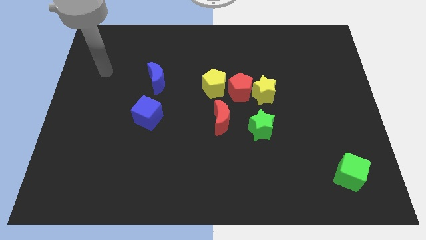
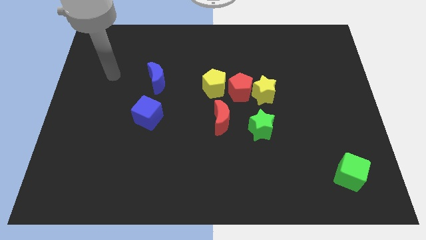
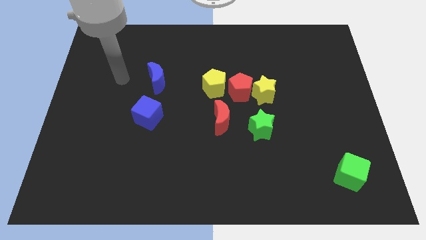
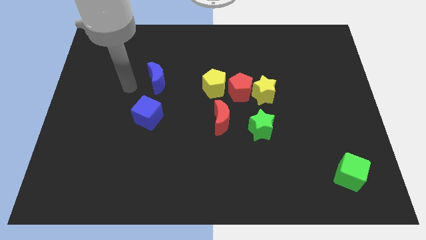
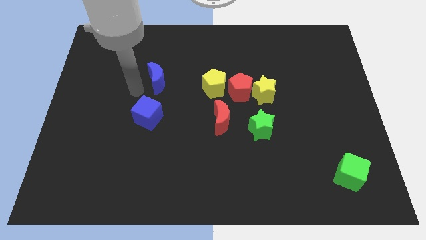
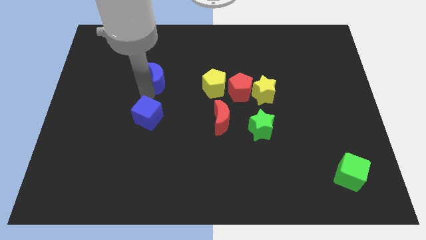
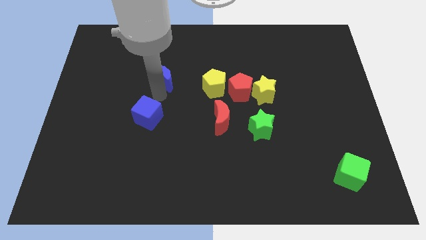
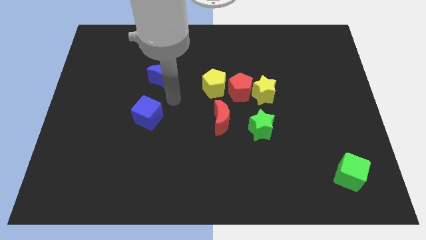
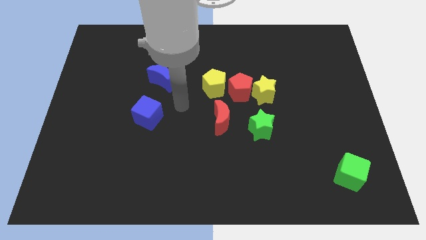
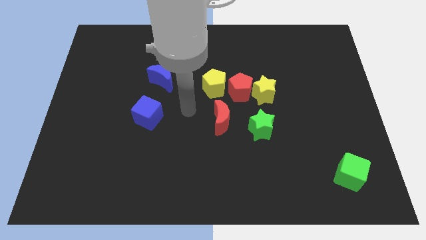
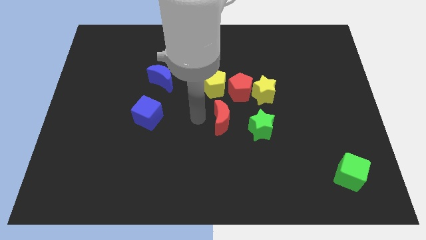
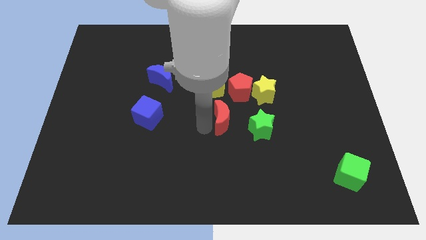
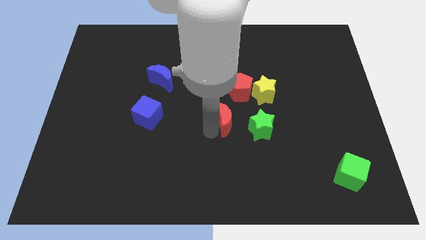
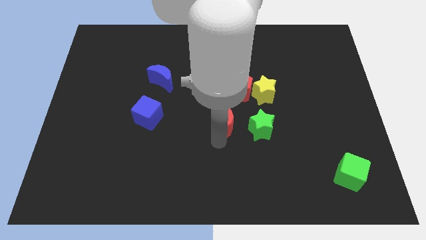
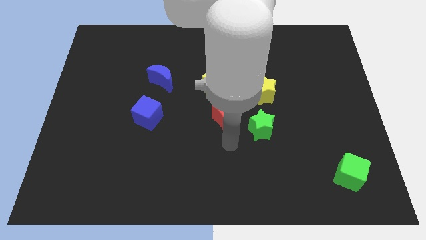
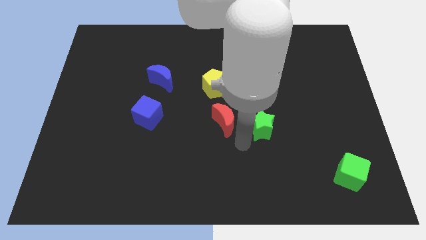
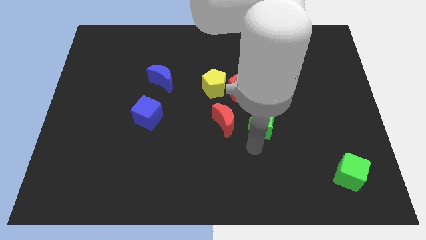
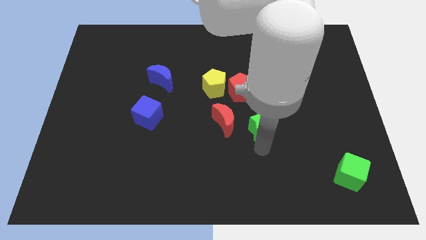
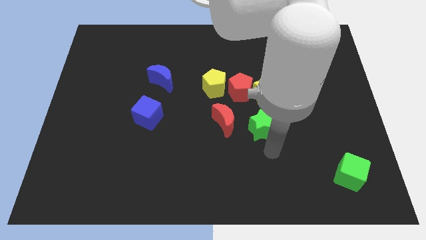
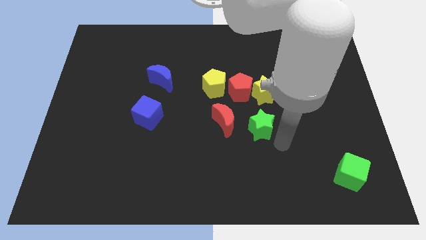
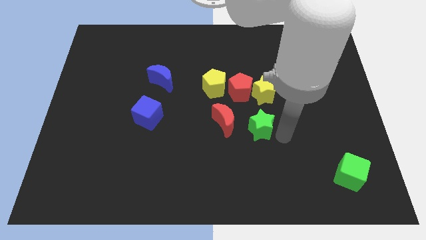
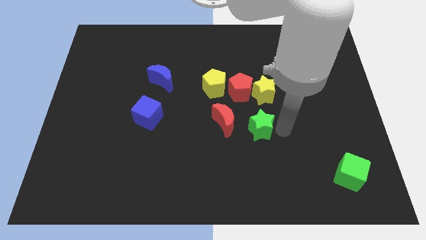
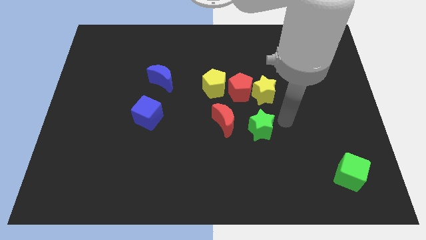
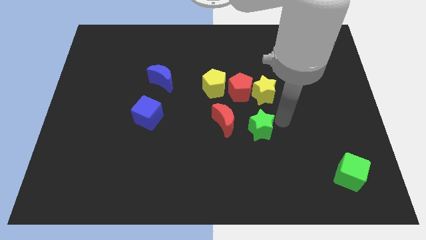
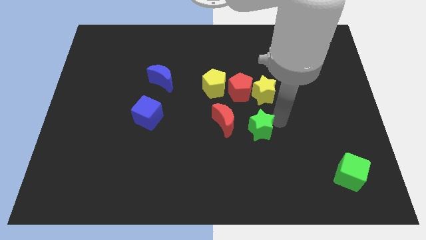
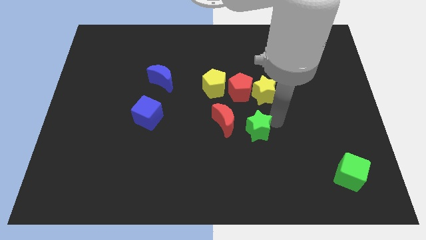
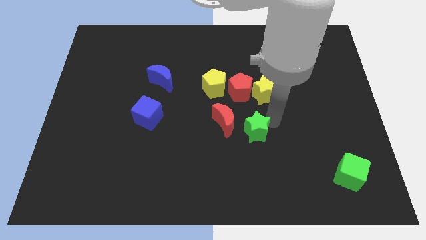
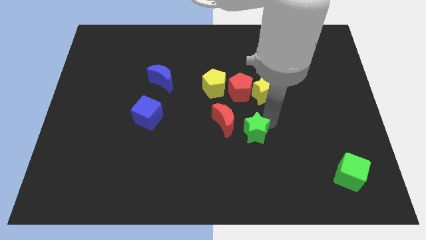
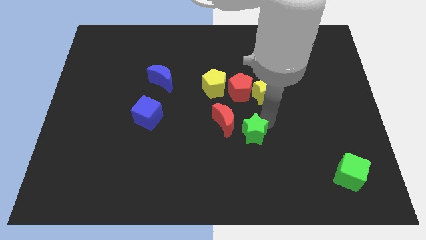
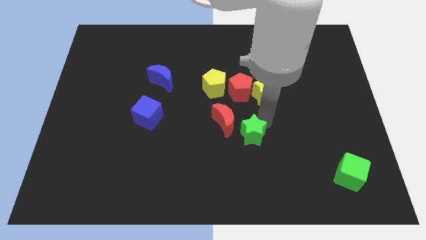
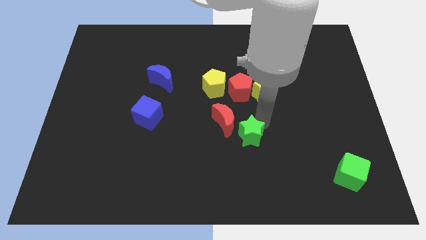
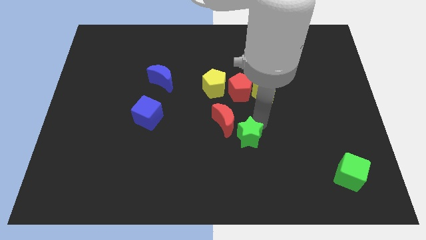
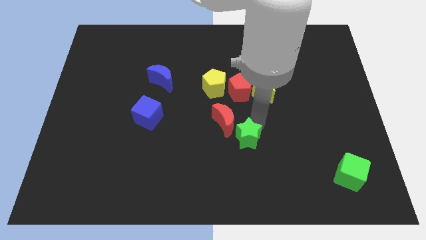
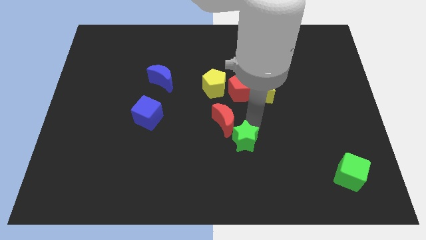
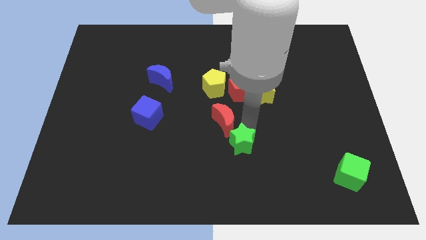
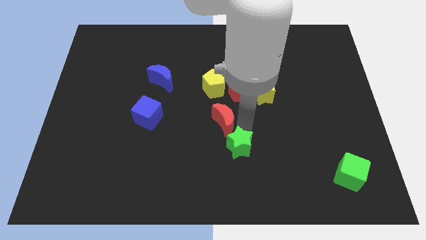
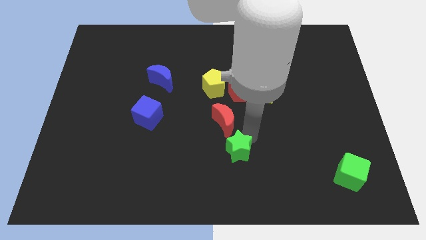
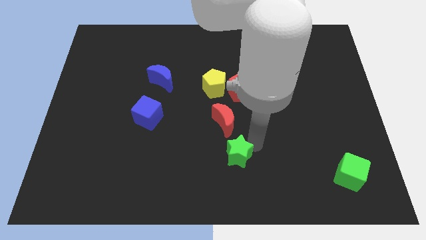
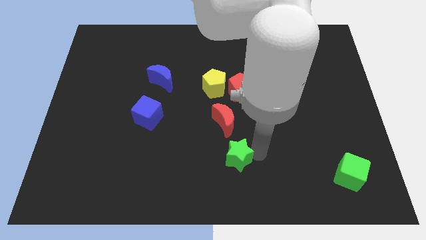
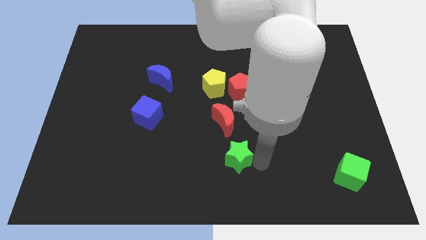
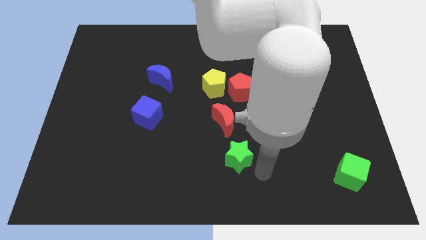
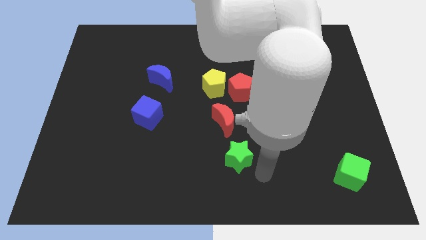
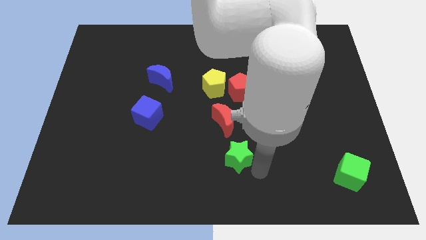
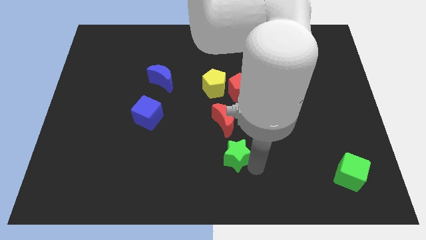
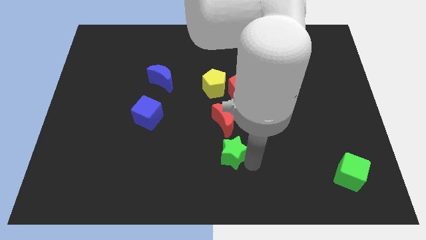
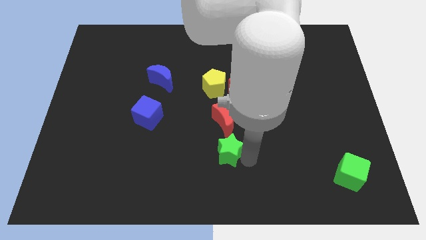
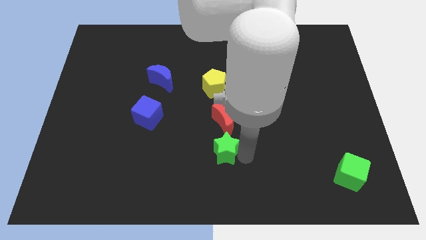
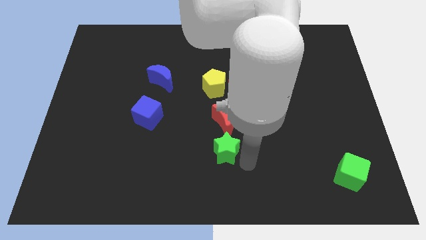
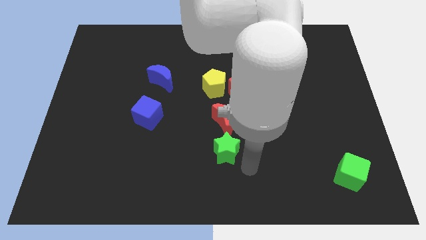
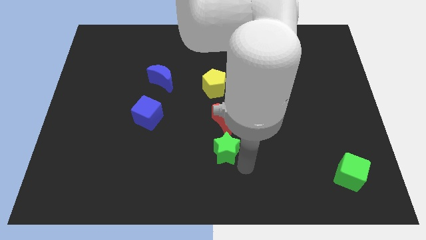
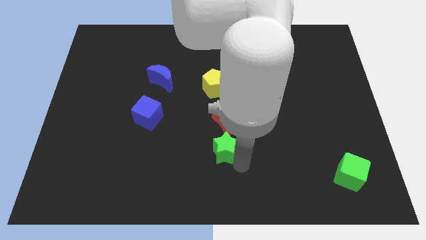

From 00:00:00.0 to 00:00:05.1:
move the green star a little to the left

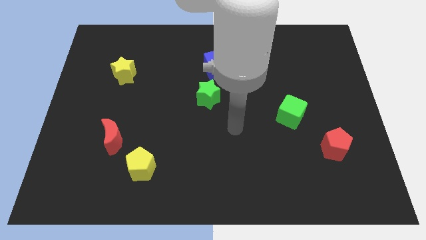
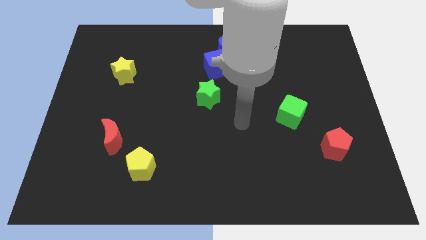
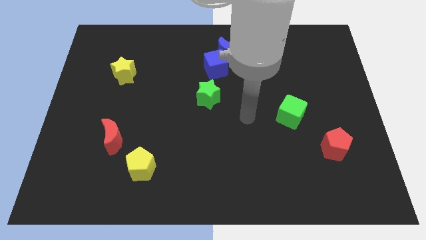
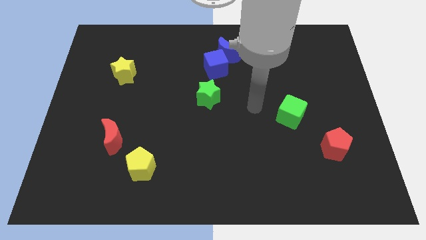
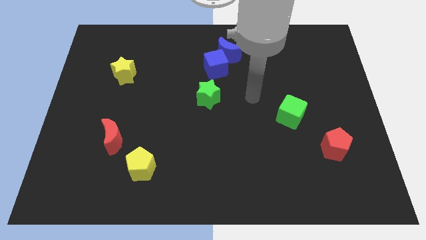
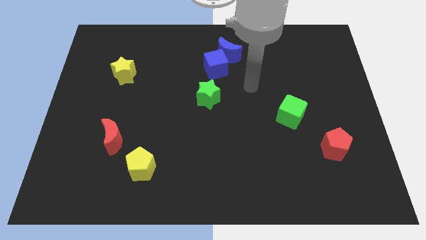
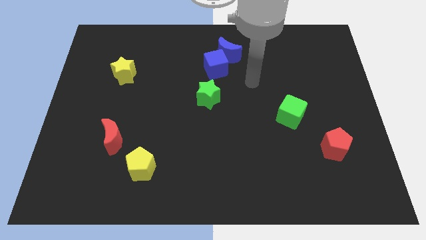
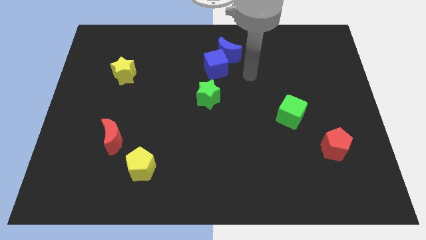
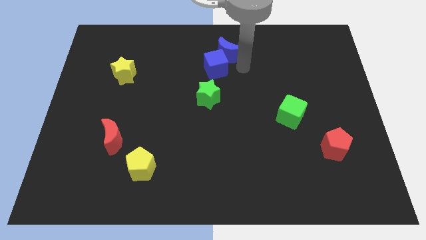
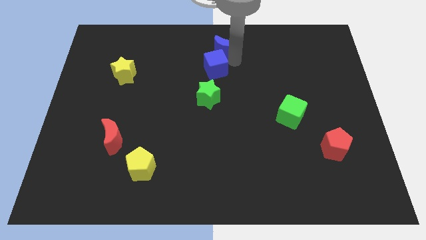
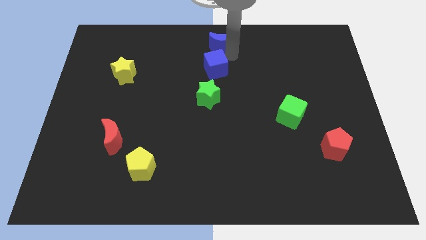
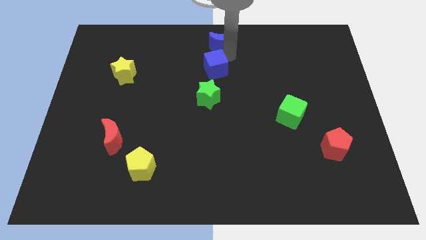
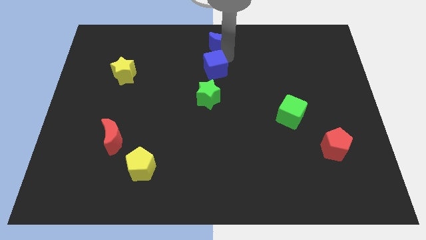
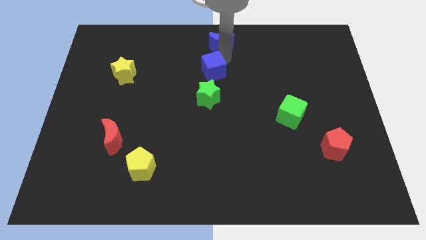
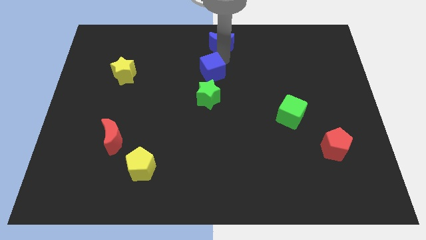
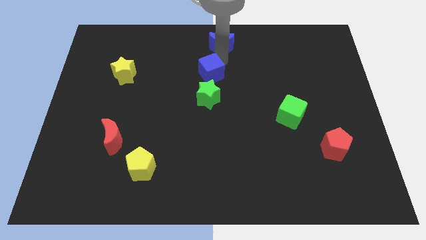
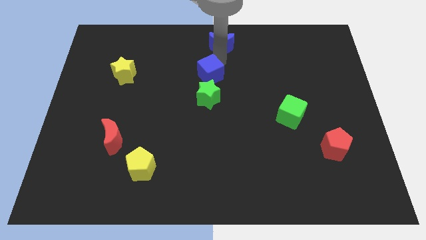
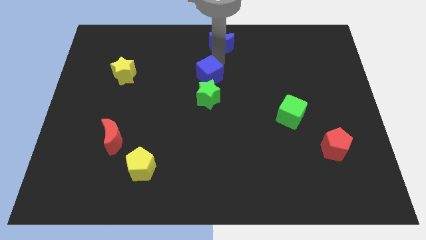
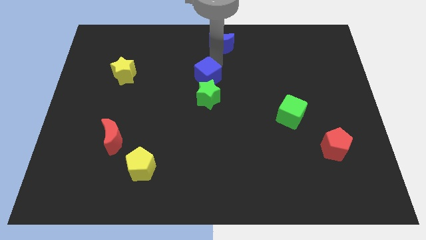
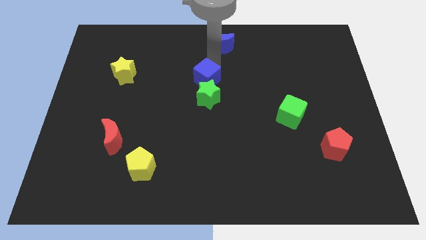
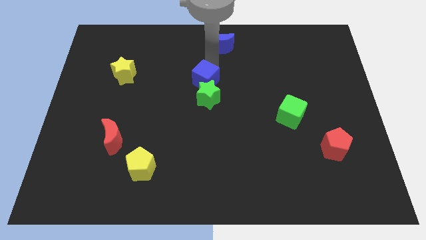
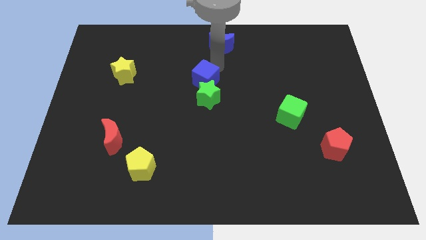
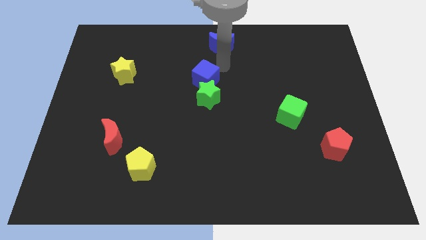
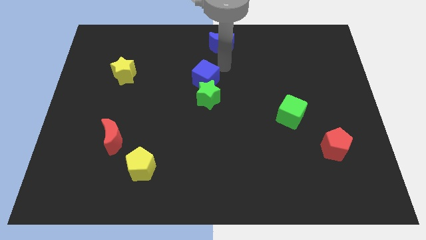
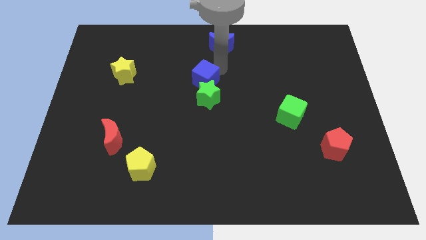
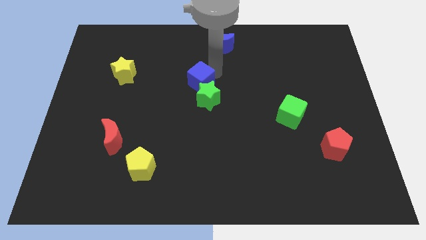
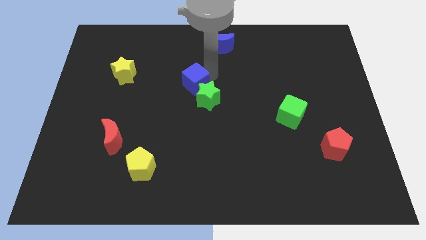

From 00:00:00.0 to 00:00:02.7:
slide the blue cube somewhat downwards and left

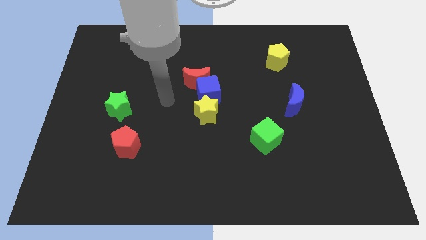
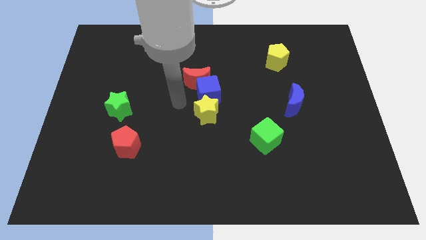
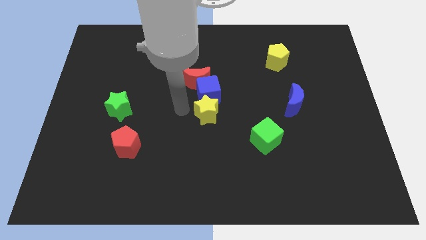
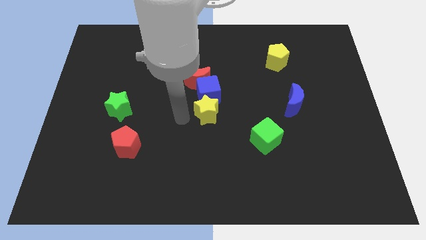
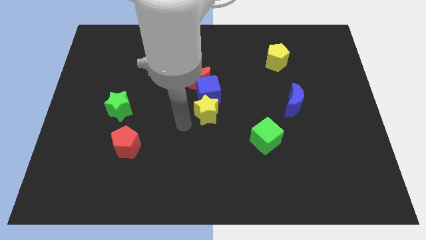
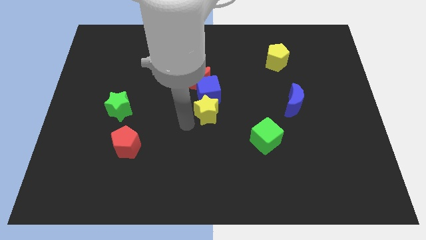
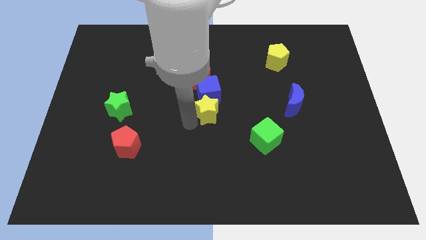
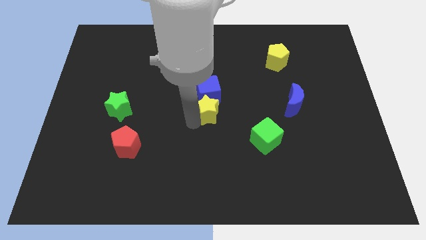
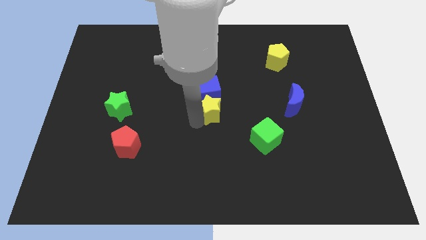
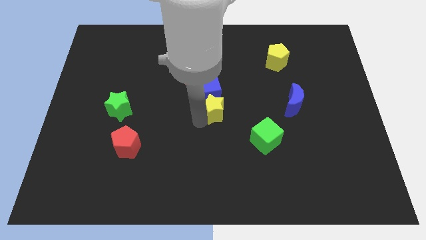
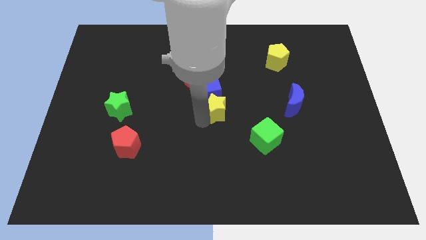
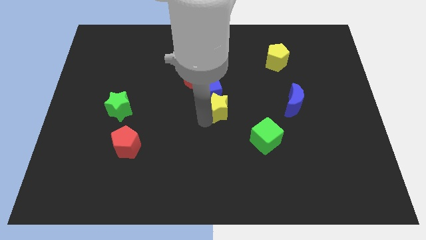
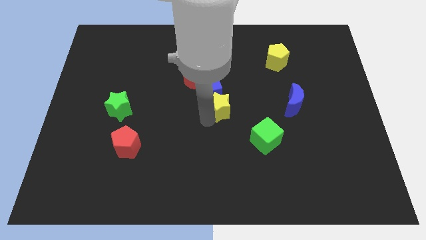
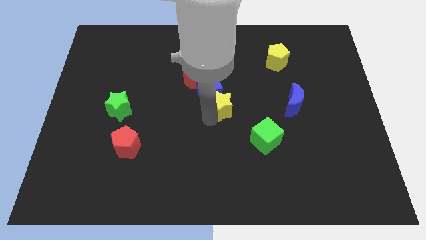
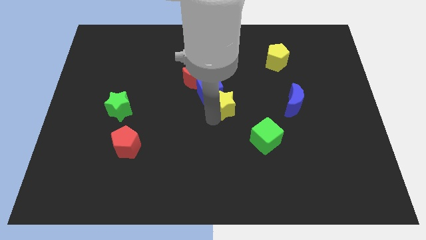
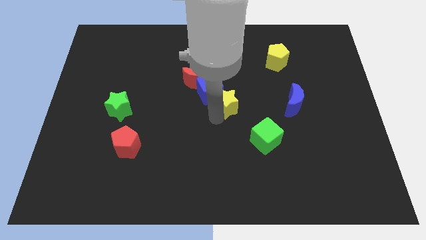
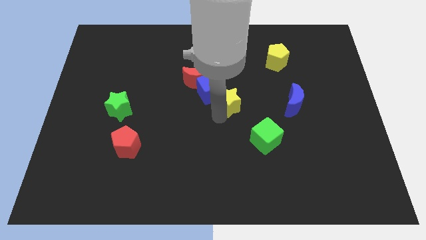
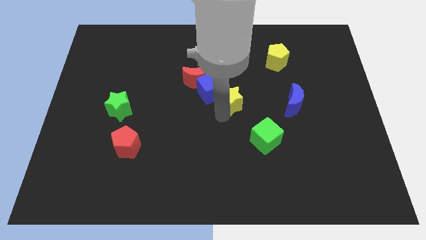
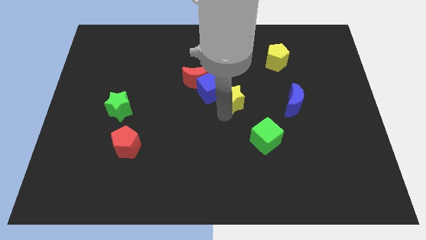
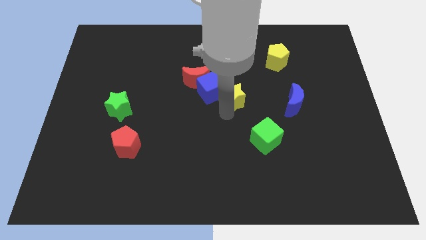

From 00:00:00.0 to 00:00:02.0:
slide the yellow star upwards and to the right diagonally slightly
